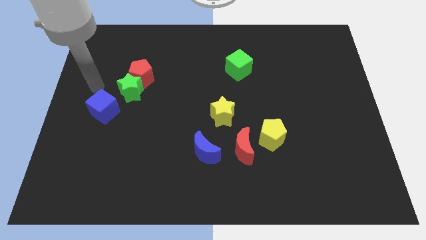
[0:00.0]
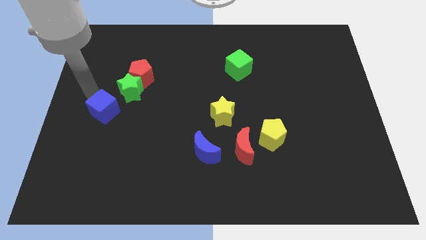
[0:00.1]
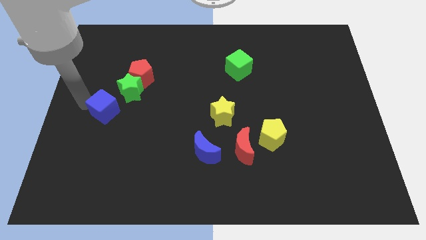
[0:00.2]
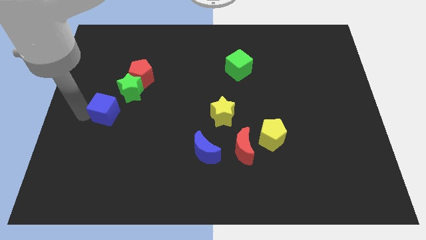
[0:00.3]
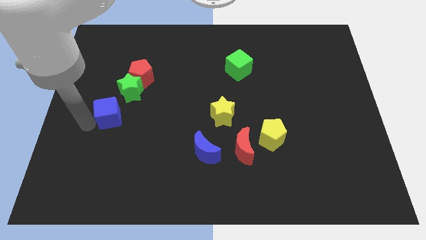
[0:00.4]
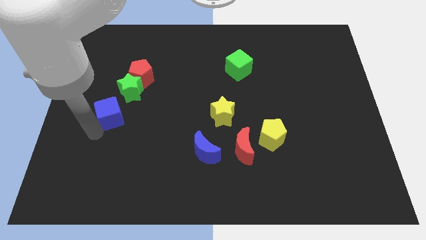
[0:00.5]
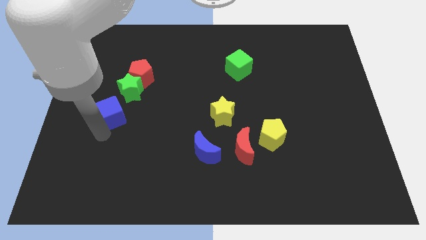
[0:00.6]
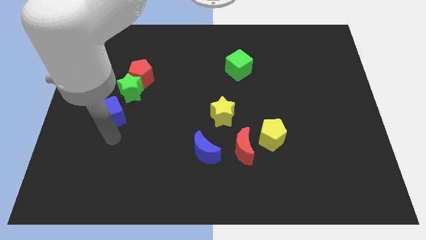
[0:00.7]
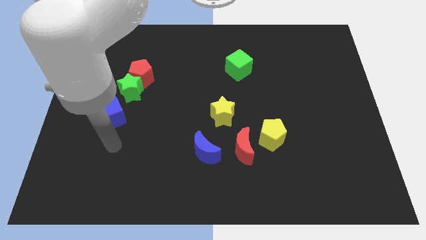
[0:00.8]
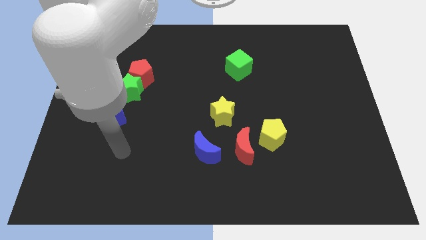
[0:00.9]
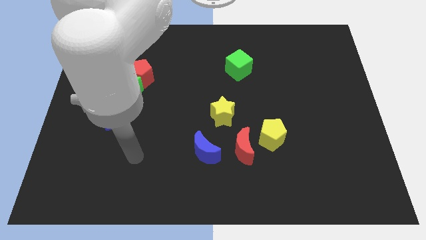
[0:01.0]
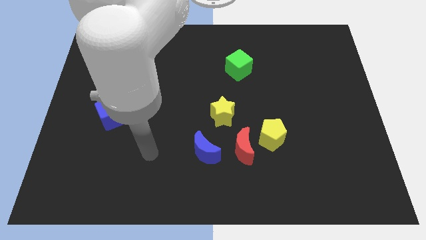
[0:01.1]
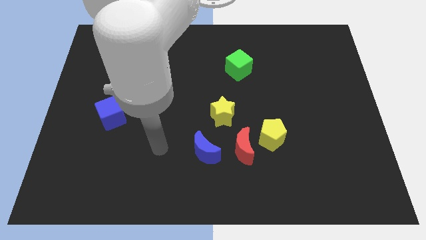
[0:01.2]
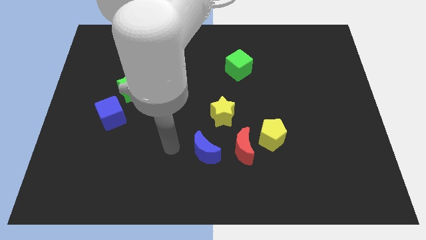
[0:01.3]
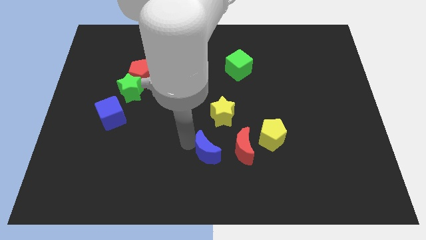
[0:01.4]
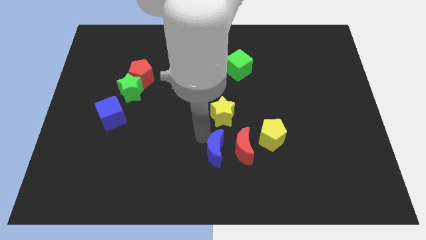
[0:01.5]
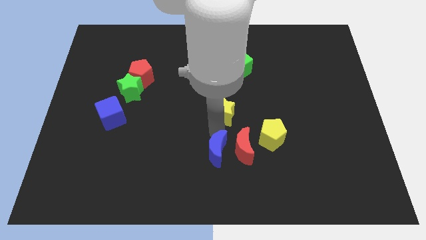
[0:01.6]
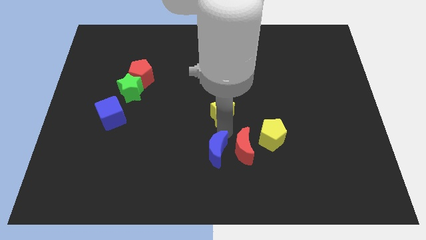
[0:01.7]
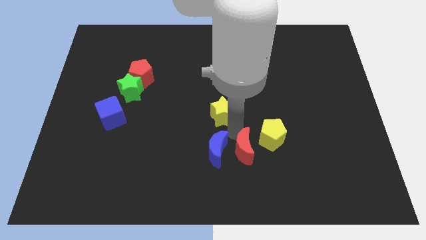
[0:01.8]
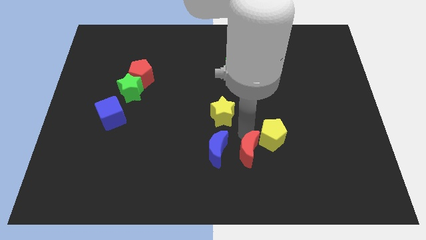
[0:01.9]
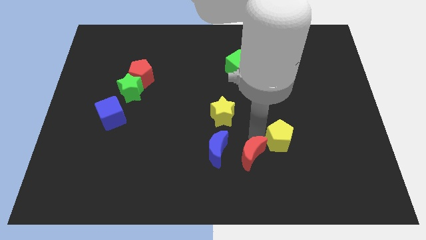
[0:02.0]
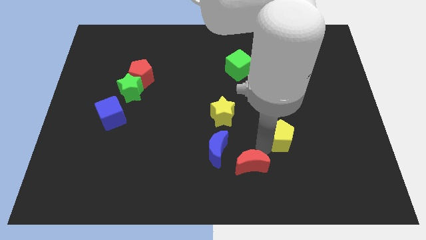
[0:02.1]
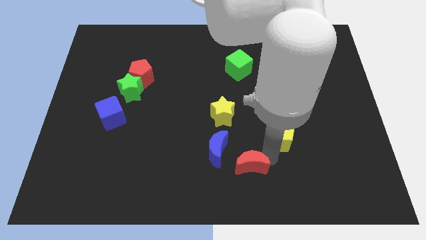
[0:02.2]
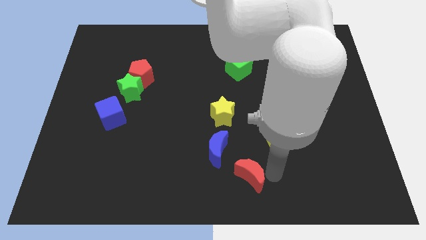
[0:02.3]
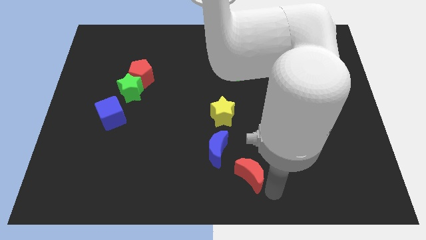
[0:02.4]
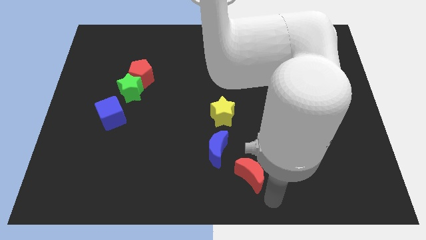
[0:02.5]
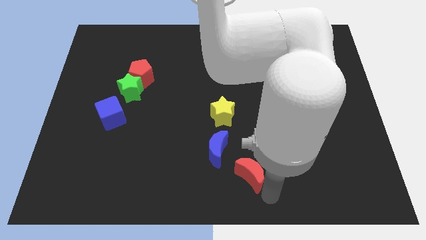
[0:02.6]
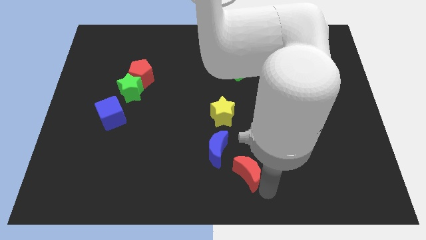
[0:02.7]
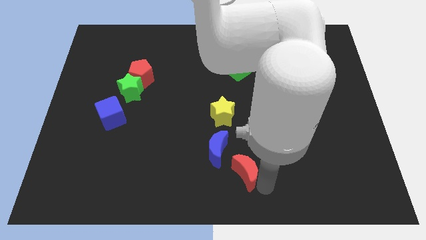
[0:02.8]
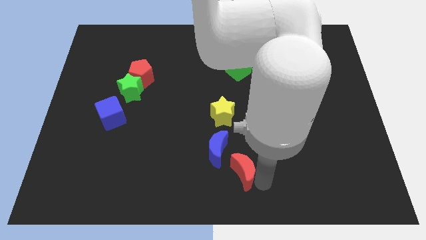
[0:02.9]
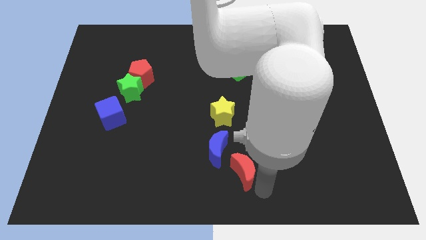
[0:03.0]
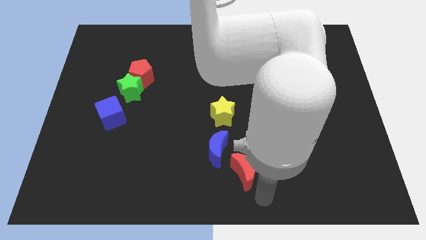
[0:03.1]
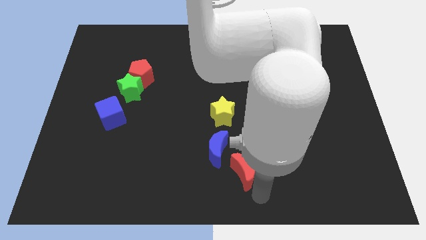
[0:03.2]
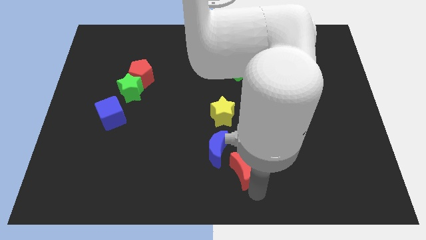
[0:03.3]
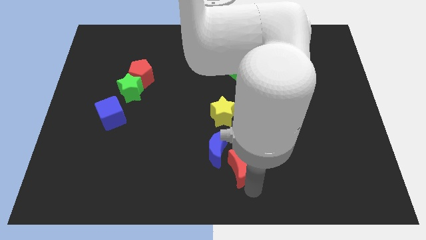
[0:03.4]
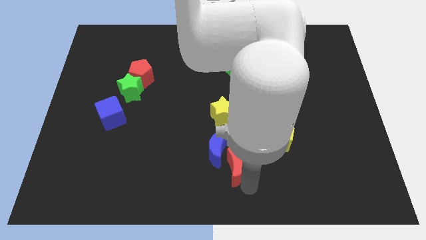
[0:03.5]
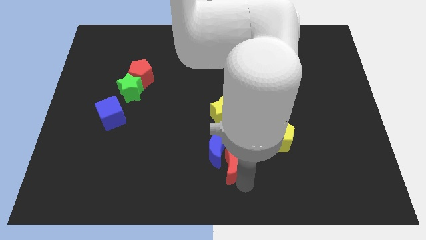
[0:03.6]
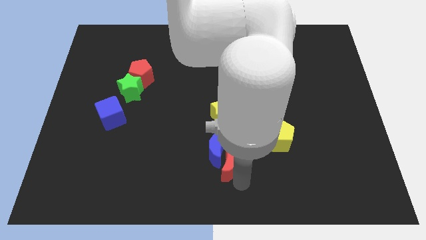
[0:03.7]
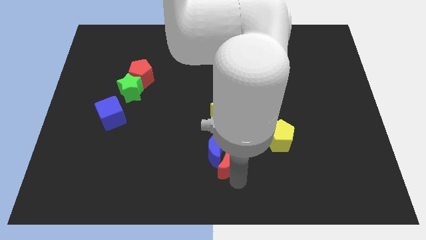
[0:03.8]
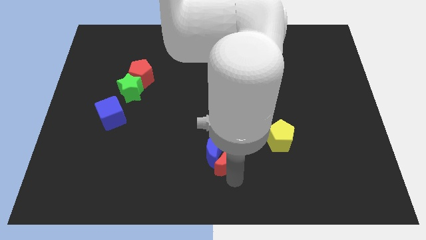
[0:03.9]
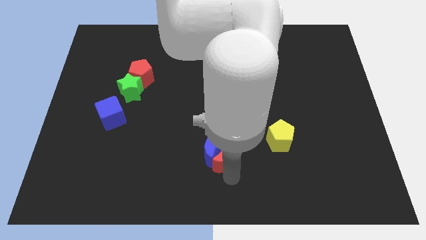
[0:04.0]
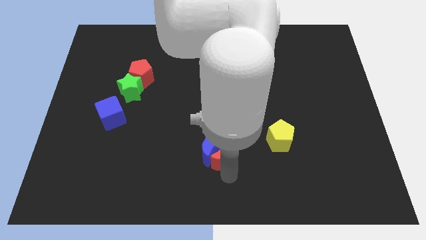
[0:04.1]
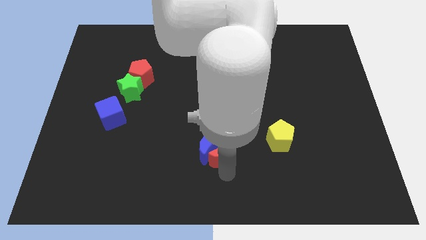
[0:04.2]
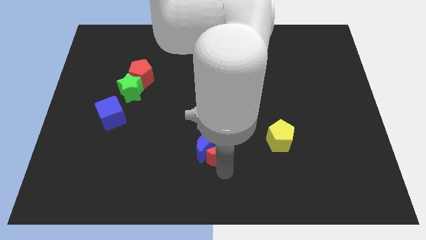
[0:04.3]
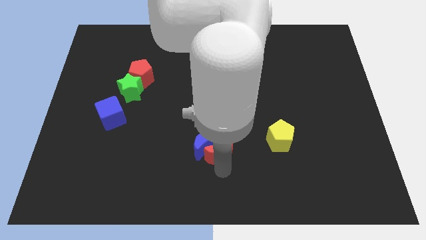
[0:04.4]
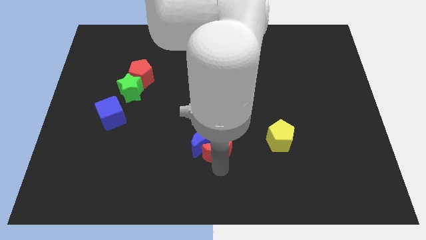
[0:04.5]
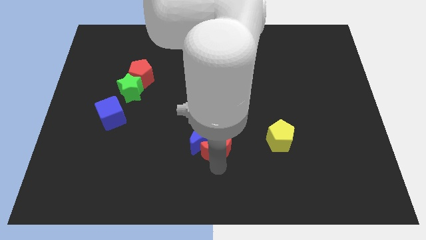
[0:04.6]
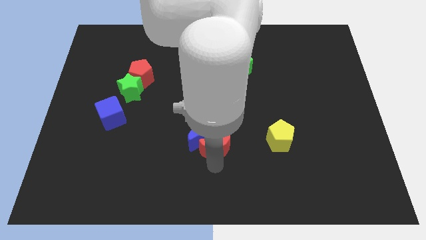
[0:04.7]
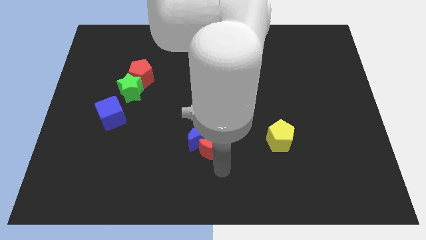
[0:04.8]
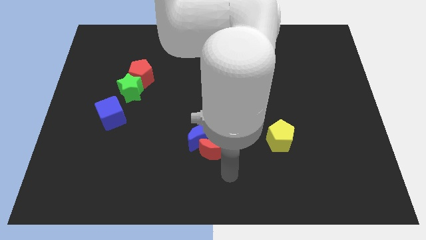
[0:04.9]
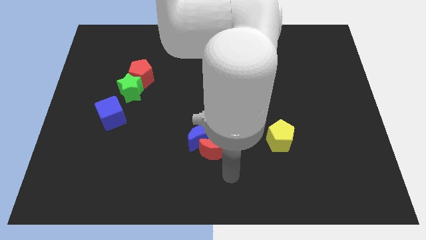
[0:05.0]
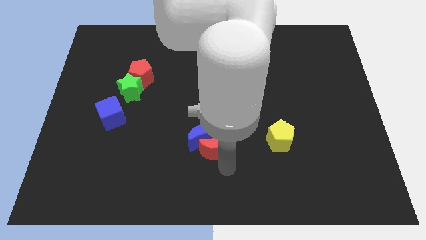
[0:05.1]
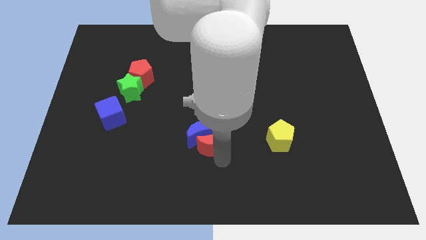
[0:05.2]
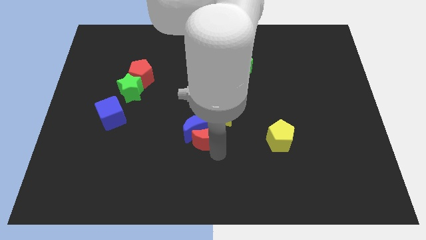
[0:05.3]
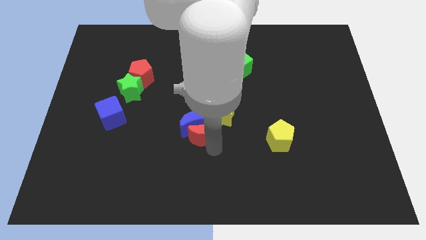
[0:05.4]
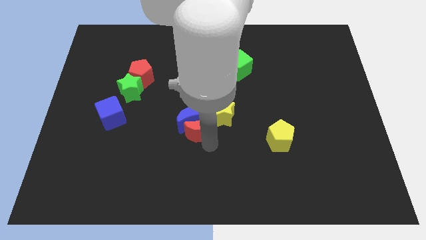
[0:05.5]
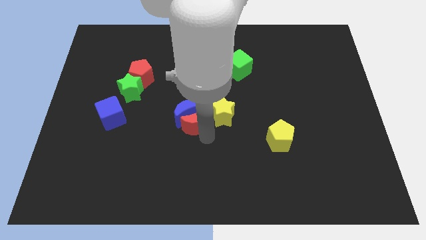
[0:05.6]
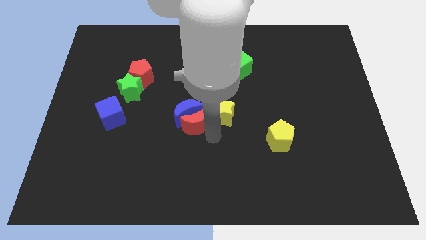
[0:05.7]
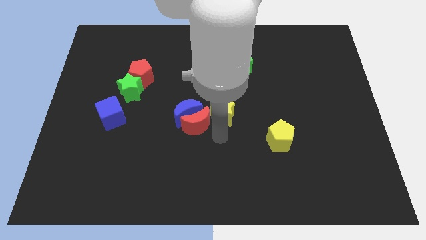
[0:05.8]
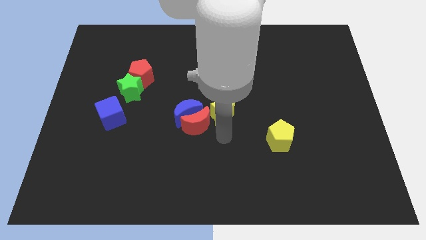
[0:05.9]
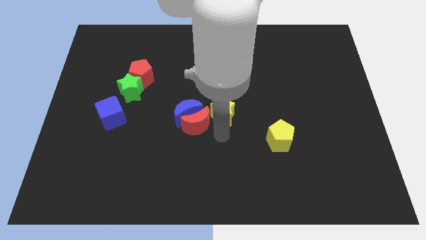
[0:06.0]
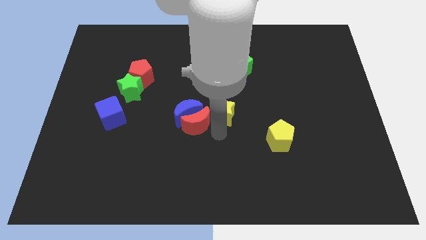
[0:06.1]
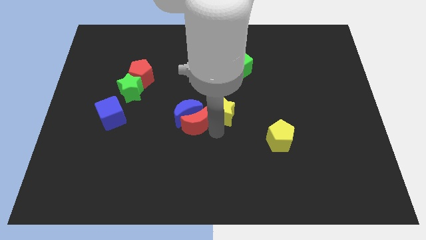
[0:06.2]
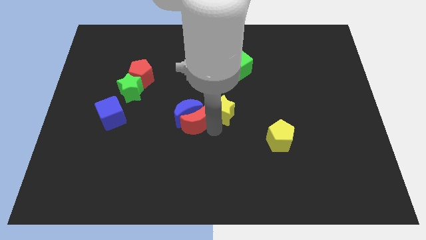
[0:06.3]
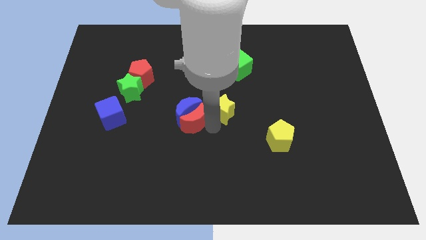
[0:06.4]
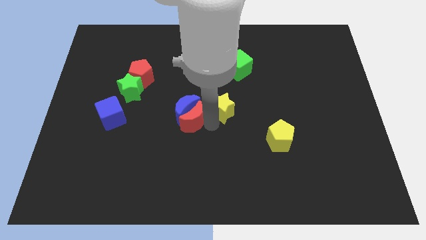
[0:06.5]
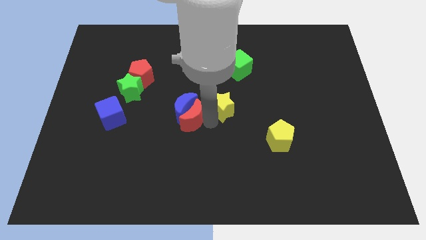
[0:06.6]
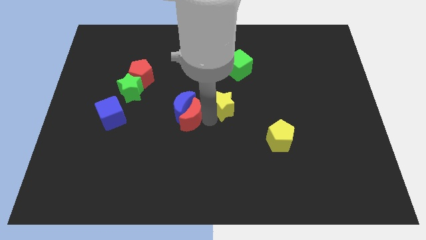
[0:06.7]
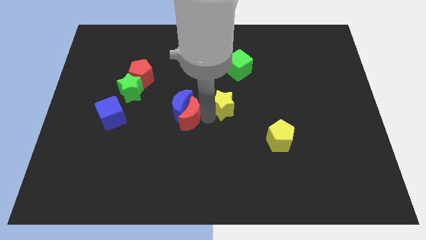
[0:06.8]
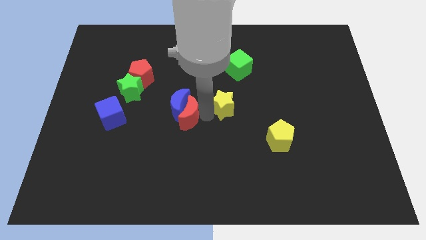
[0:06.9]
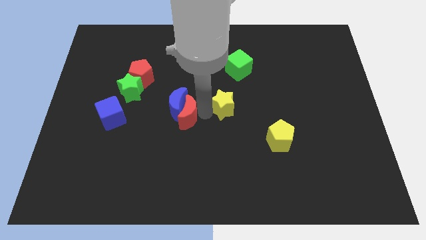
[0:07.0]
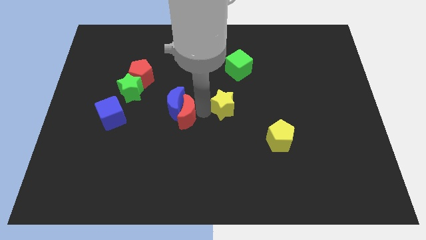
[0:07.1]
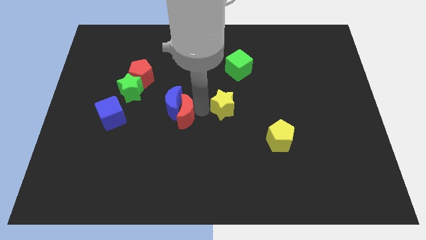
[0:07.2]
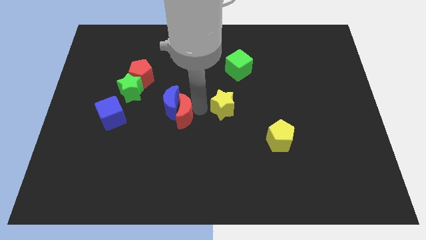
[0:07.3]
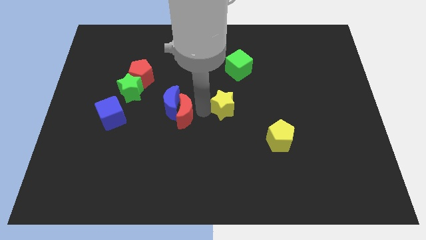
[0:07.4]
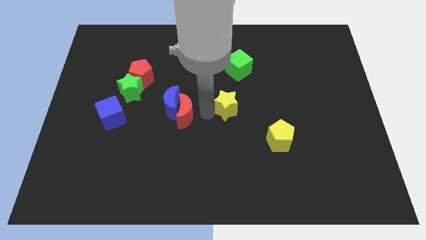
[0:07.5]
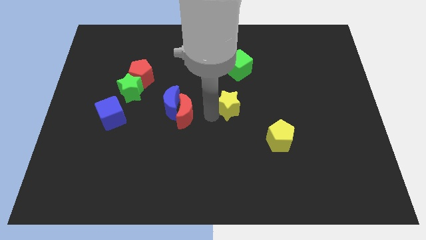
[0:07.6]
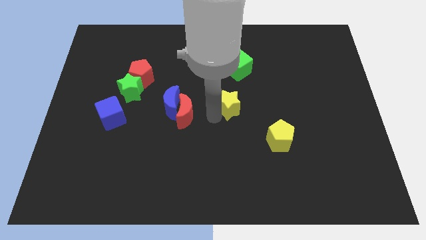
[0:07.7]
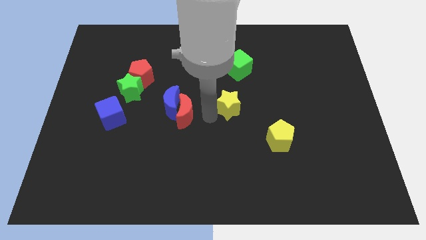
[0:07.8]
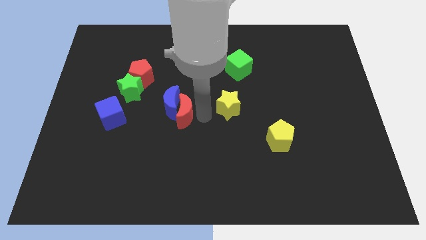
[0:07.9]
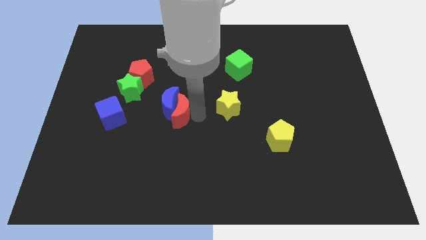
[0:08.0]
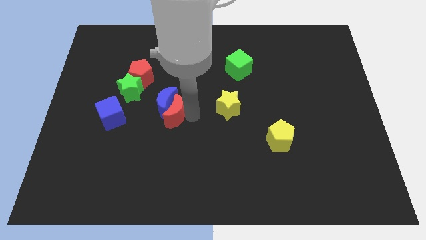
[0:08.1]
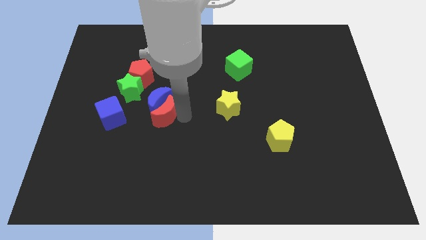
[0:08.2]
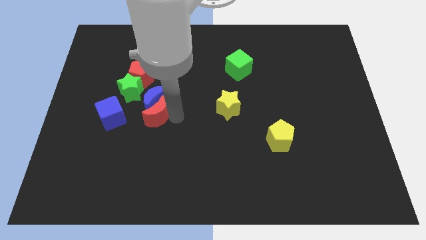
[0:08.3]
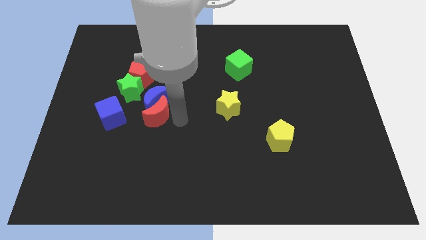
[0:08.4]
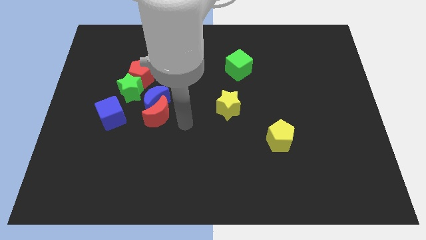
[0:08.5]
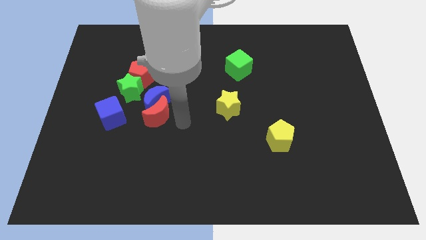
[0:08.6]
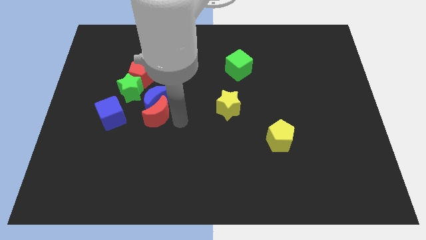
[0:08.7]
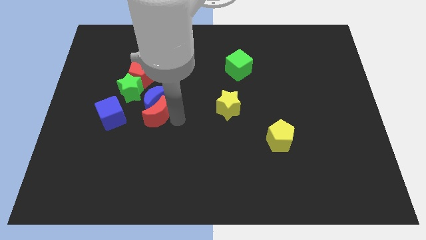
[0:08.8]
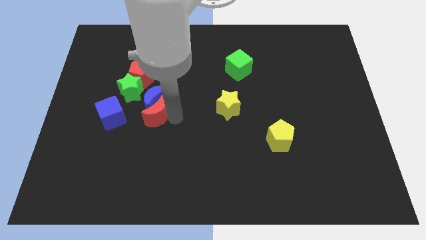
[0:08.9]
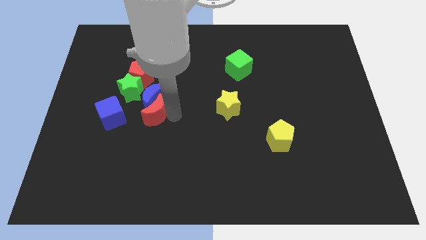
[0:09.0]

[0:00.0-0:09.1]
slide the red moon below the red pentagon
